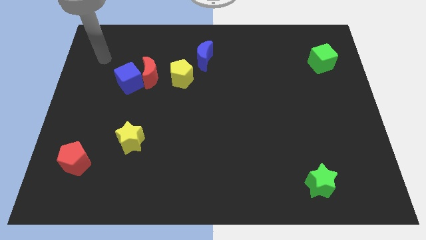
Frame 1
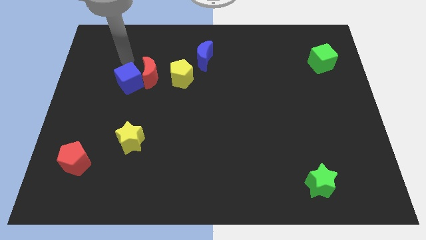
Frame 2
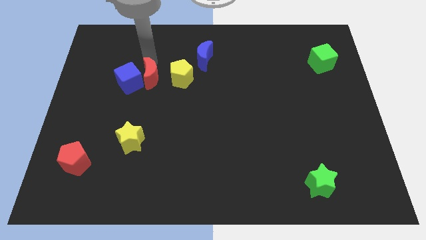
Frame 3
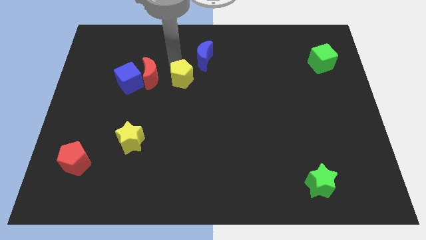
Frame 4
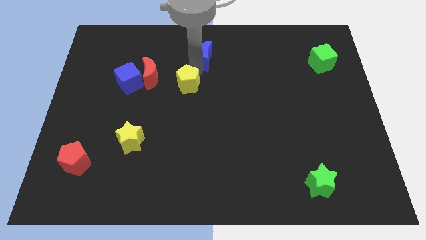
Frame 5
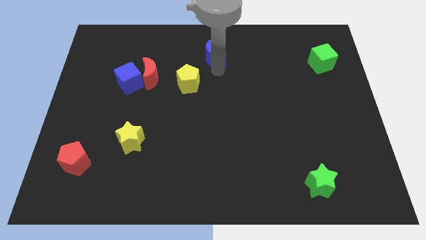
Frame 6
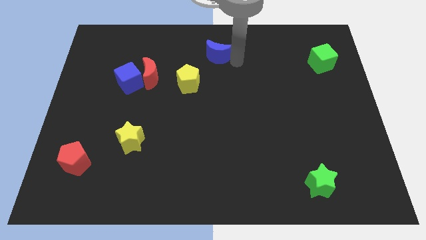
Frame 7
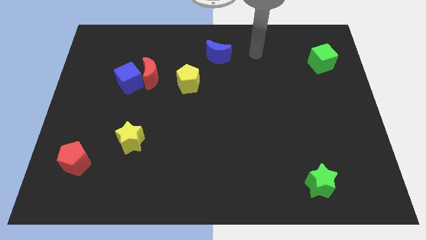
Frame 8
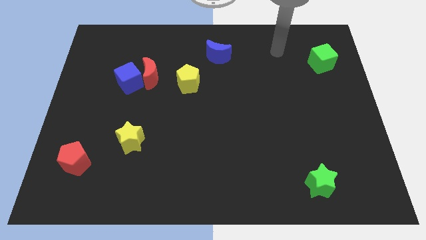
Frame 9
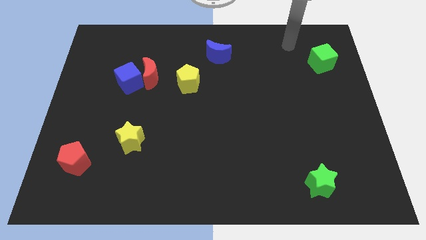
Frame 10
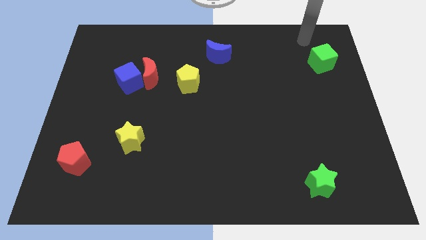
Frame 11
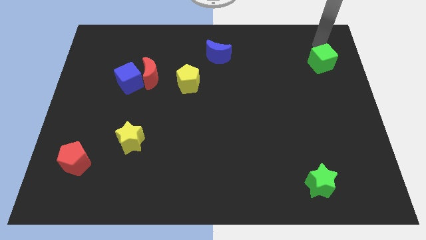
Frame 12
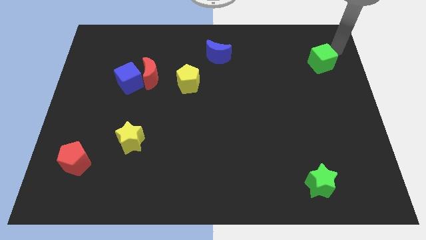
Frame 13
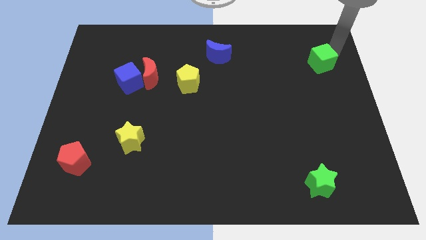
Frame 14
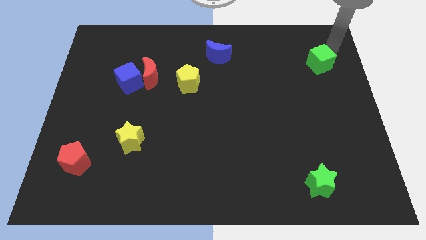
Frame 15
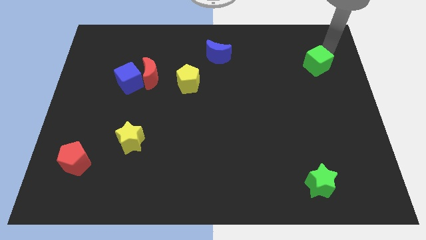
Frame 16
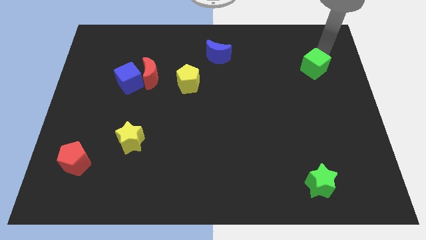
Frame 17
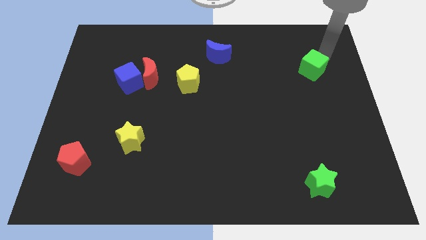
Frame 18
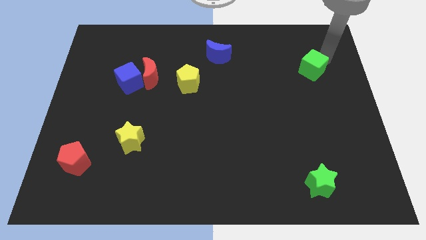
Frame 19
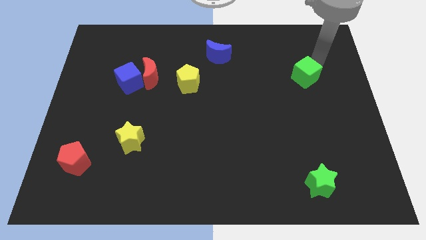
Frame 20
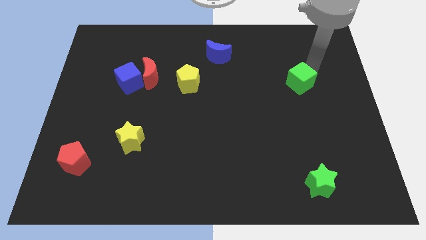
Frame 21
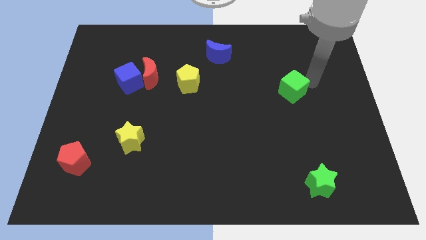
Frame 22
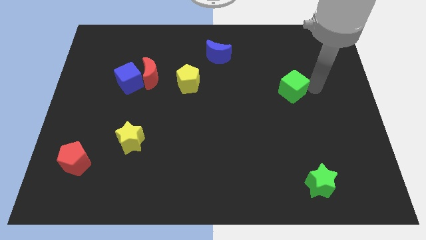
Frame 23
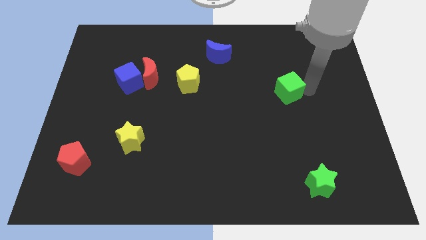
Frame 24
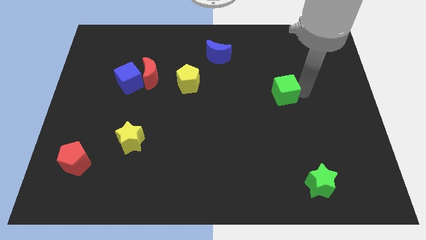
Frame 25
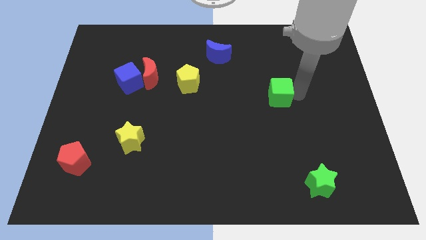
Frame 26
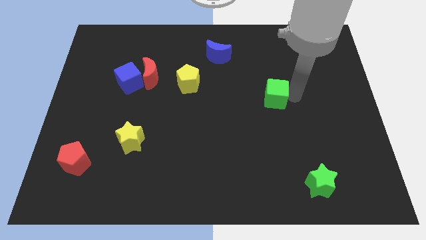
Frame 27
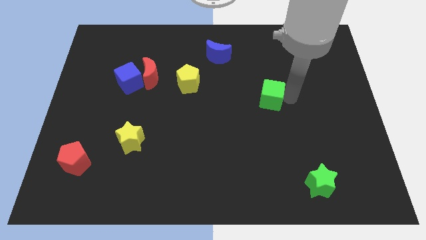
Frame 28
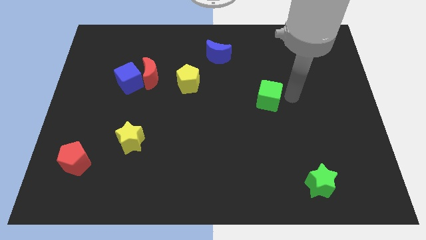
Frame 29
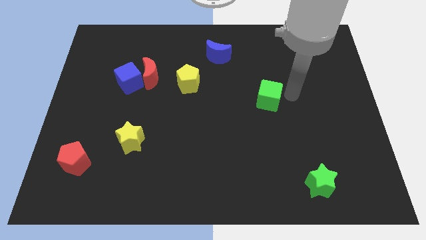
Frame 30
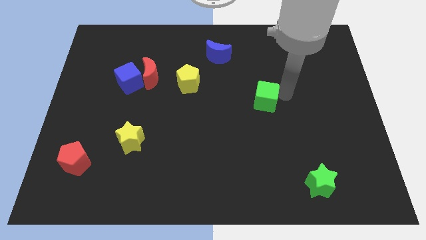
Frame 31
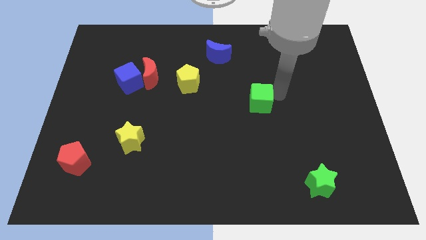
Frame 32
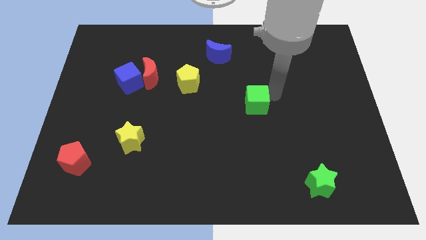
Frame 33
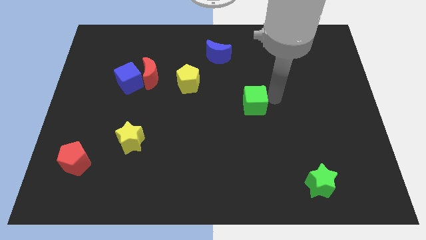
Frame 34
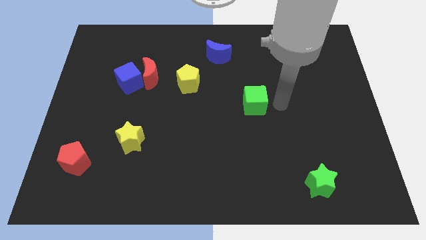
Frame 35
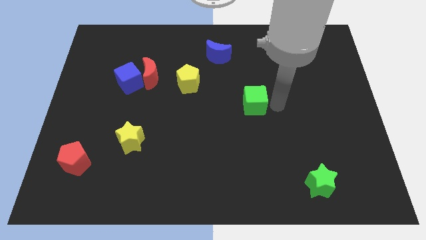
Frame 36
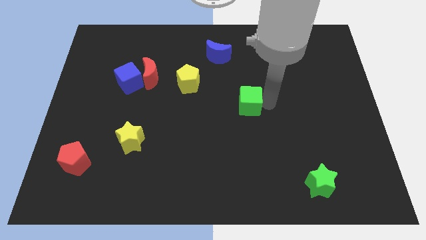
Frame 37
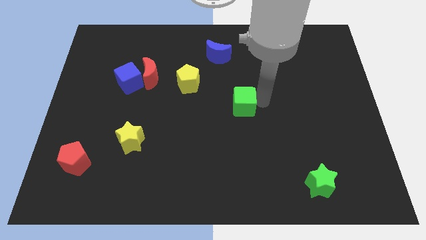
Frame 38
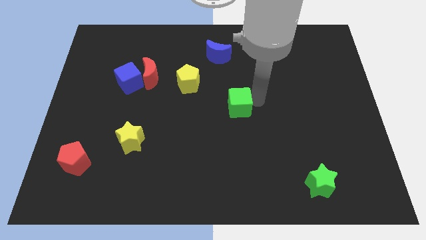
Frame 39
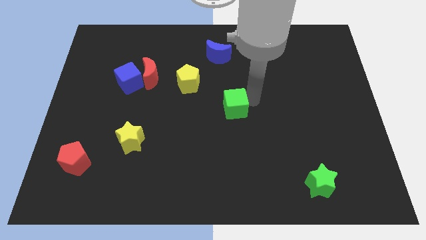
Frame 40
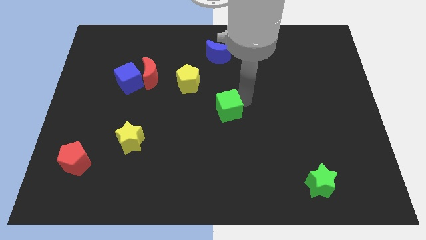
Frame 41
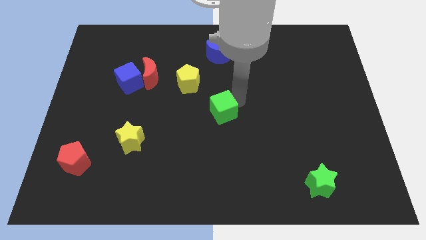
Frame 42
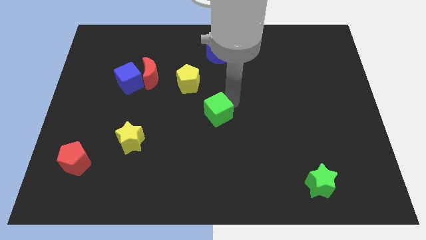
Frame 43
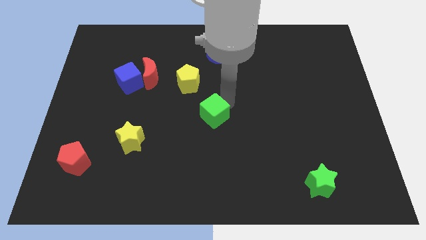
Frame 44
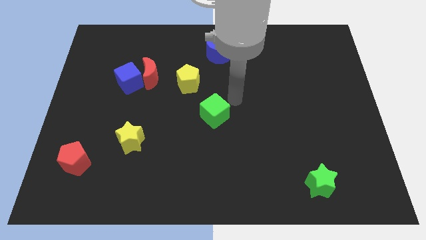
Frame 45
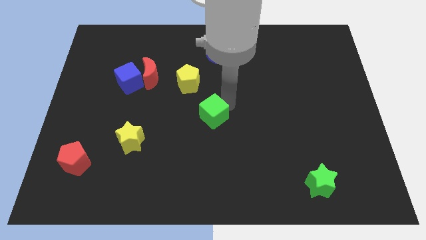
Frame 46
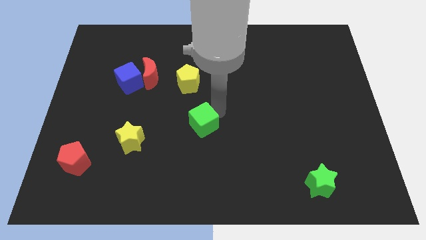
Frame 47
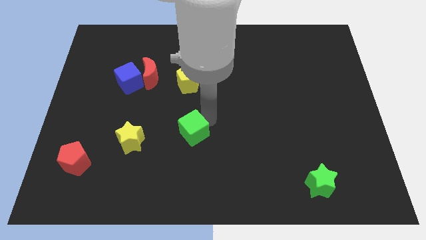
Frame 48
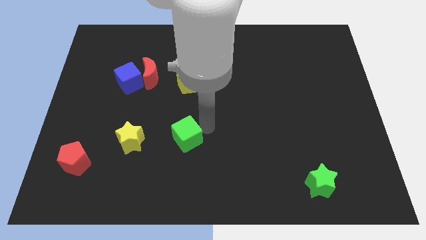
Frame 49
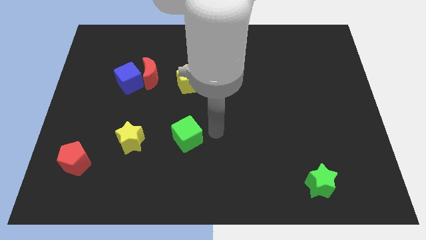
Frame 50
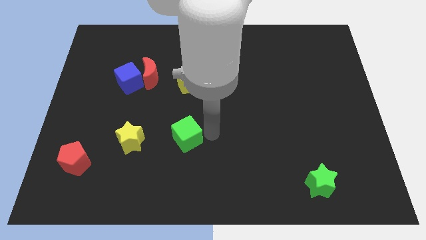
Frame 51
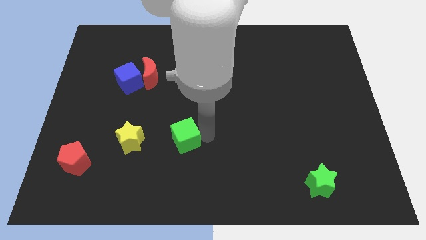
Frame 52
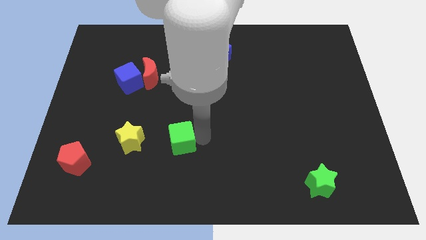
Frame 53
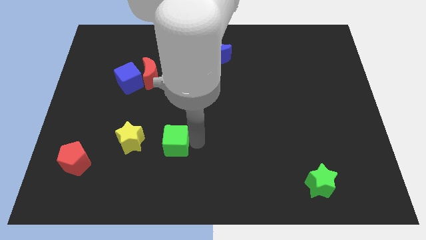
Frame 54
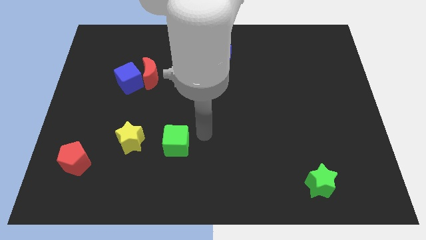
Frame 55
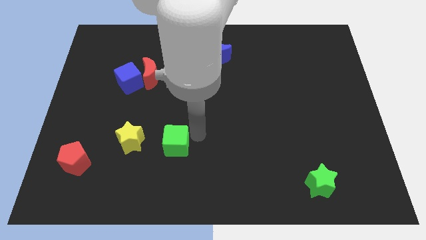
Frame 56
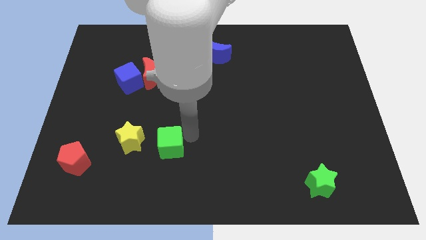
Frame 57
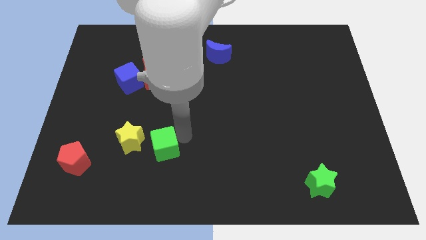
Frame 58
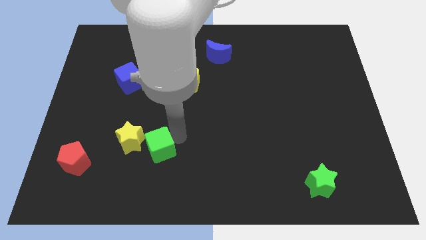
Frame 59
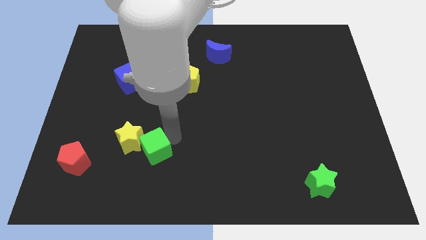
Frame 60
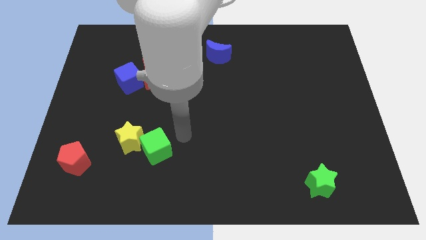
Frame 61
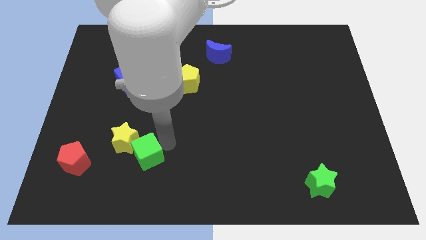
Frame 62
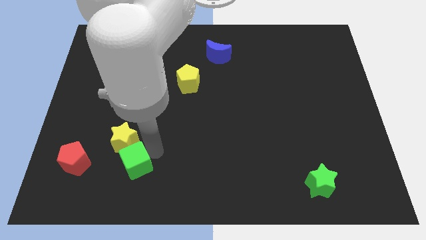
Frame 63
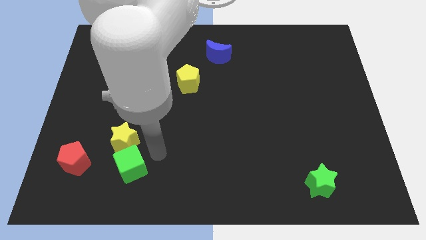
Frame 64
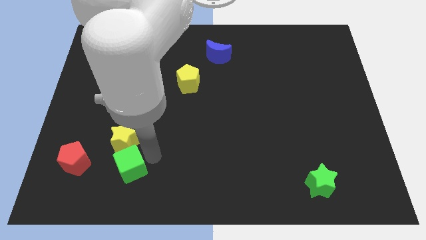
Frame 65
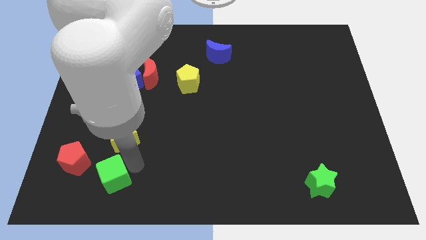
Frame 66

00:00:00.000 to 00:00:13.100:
slide the green cube to the bottom right of the red pentagon
